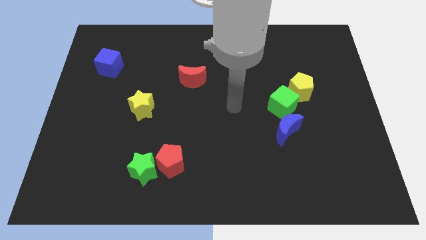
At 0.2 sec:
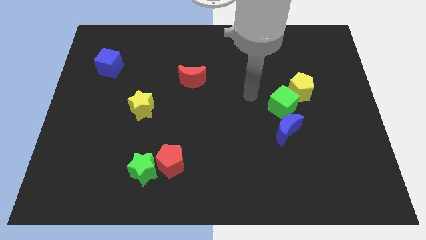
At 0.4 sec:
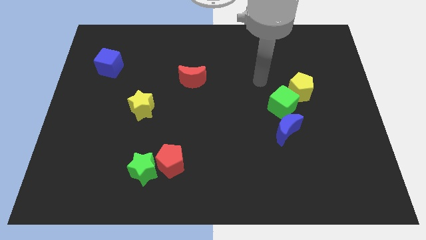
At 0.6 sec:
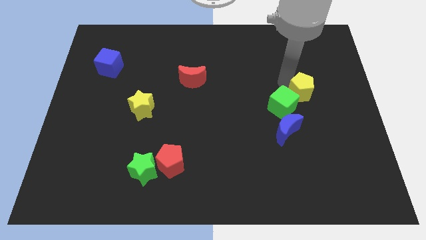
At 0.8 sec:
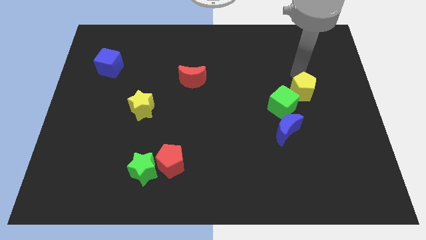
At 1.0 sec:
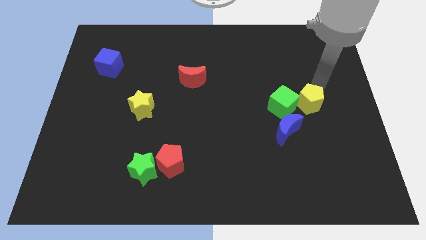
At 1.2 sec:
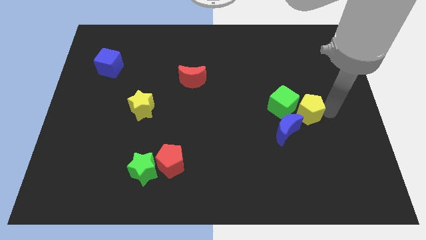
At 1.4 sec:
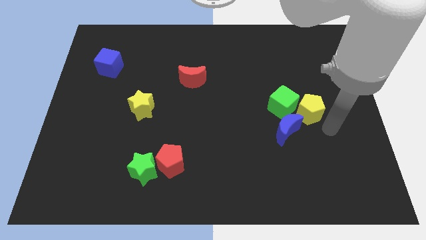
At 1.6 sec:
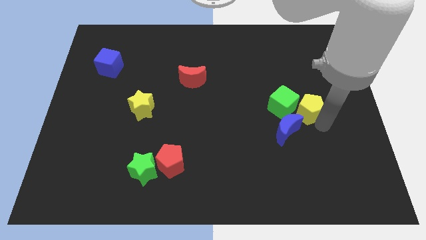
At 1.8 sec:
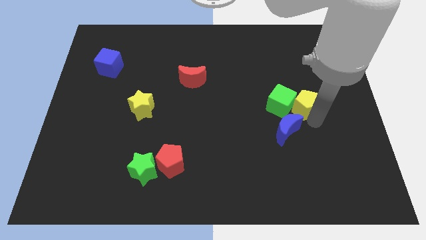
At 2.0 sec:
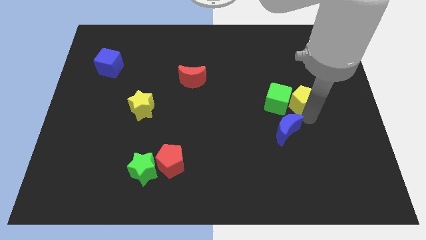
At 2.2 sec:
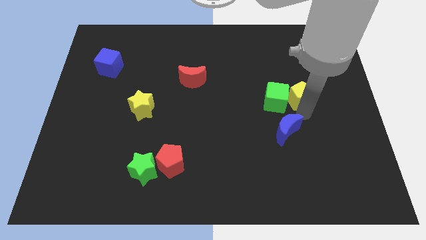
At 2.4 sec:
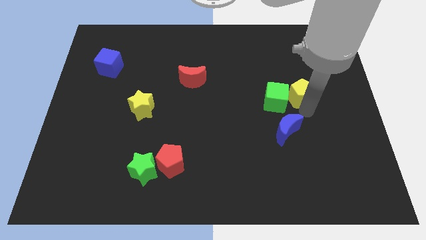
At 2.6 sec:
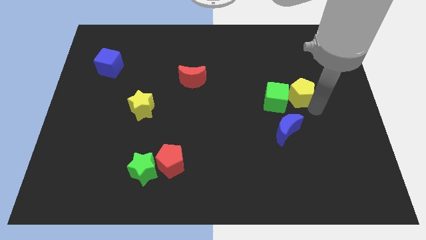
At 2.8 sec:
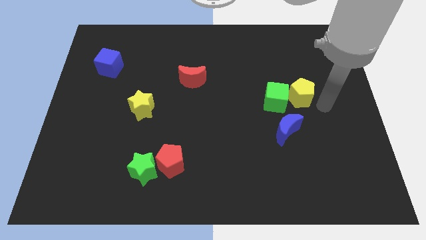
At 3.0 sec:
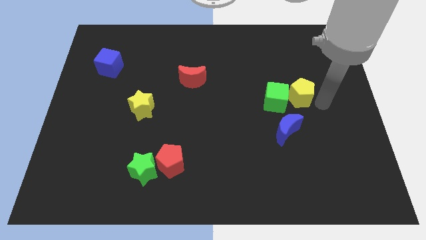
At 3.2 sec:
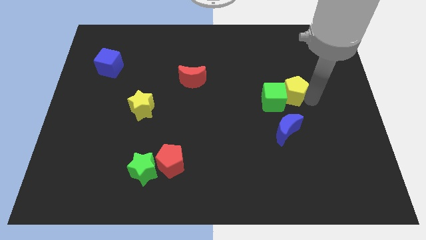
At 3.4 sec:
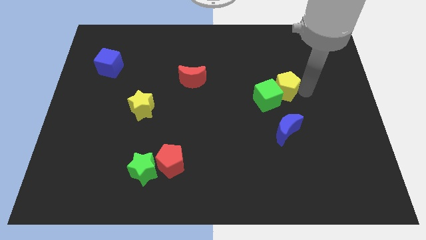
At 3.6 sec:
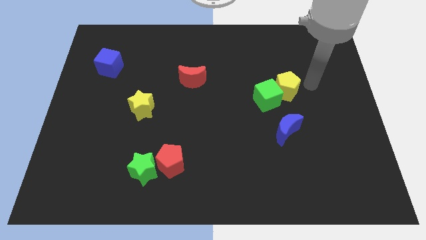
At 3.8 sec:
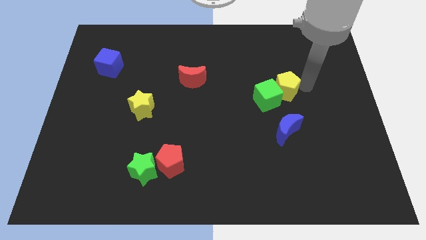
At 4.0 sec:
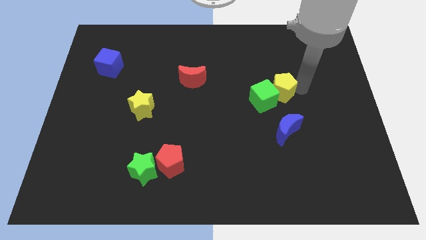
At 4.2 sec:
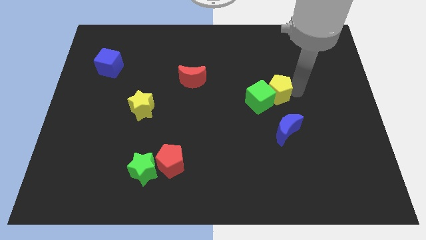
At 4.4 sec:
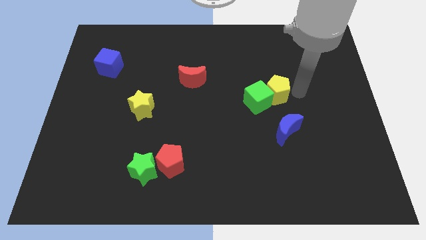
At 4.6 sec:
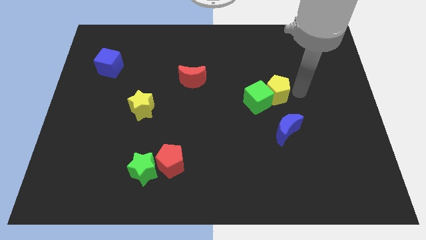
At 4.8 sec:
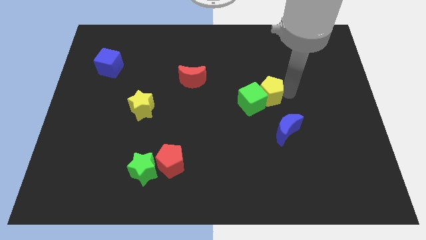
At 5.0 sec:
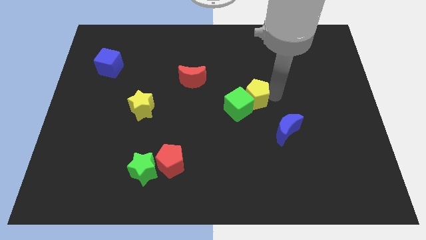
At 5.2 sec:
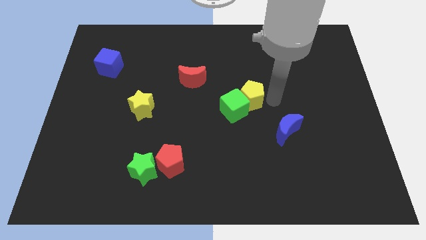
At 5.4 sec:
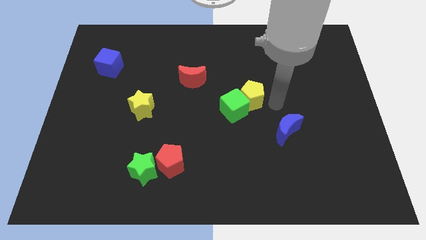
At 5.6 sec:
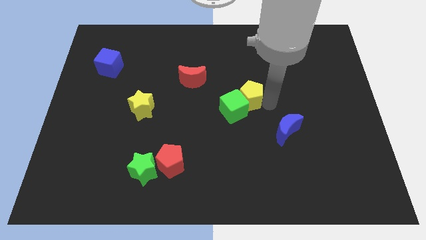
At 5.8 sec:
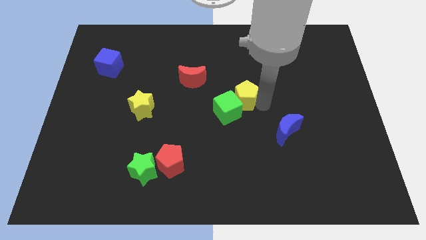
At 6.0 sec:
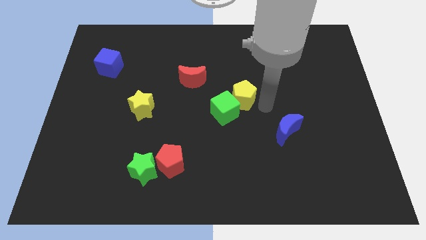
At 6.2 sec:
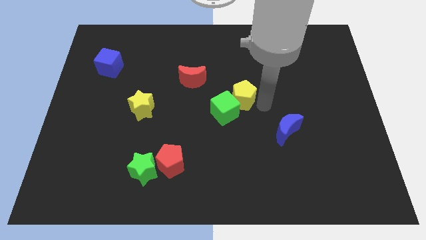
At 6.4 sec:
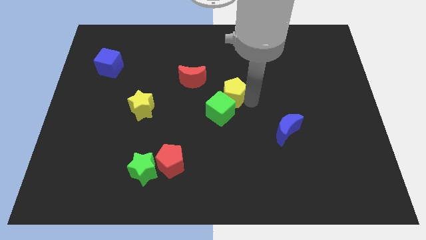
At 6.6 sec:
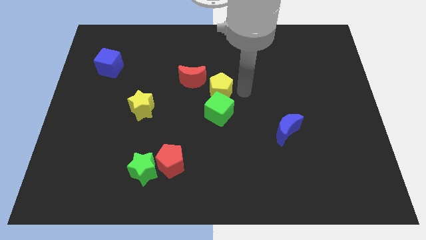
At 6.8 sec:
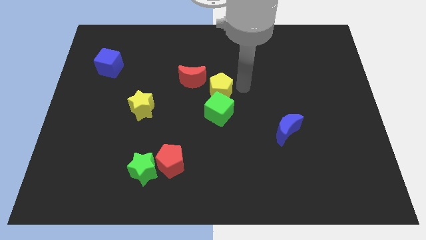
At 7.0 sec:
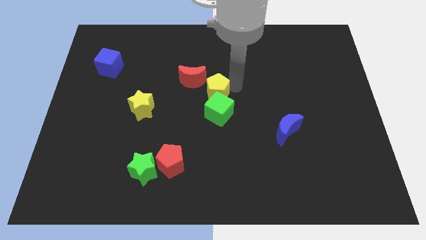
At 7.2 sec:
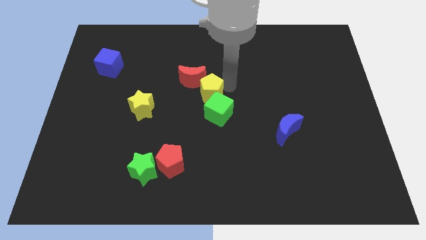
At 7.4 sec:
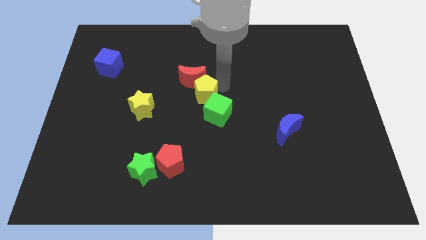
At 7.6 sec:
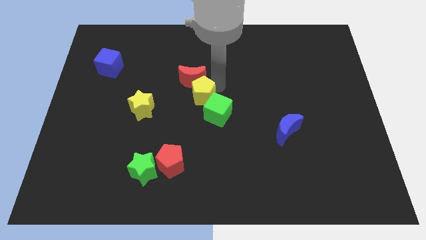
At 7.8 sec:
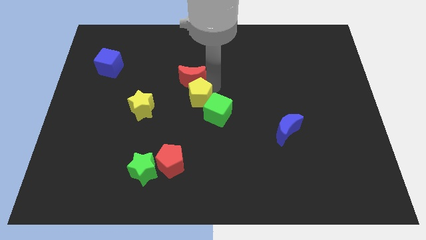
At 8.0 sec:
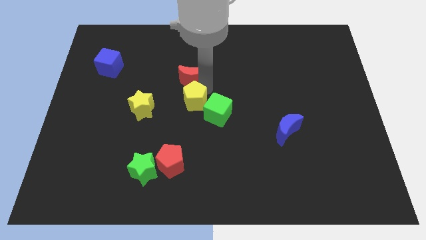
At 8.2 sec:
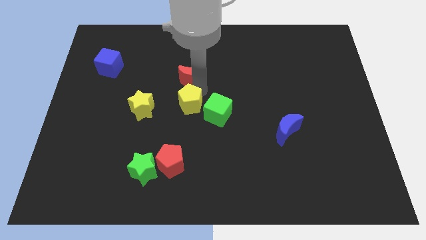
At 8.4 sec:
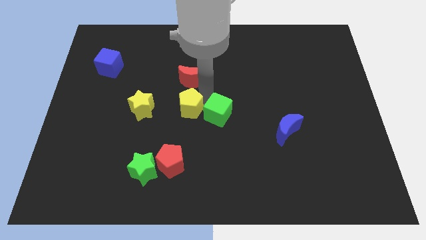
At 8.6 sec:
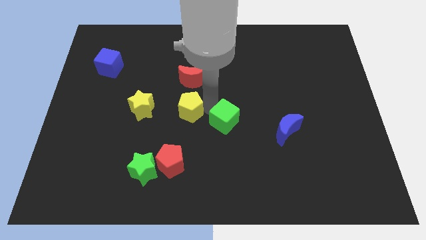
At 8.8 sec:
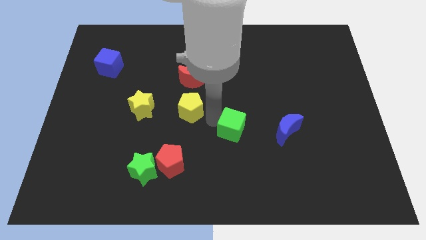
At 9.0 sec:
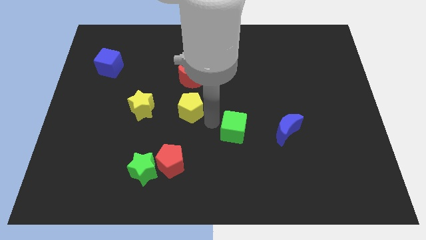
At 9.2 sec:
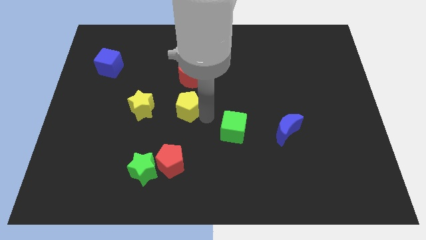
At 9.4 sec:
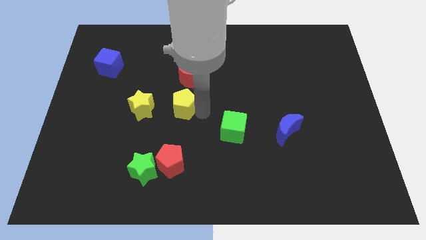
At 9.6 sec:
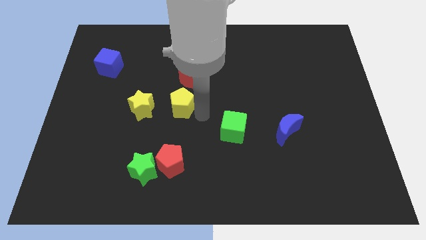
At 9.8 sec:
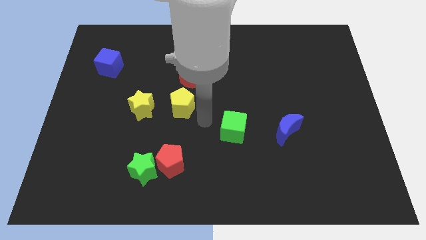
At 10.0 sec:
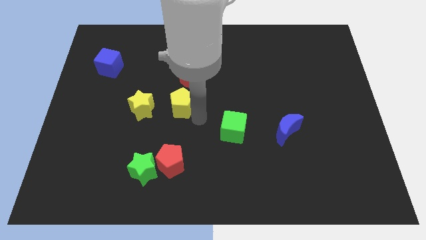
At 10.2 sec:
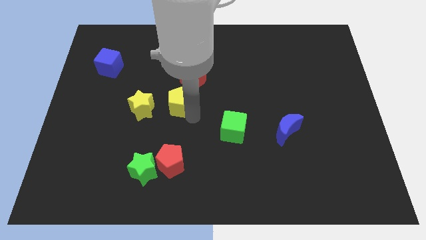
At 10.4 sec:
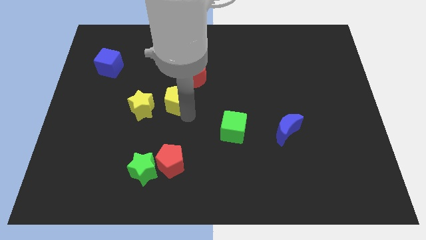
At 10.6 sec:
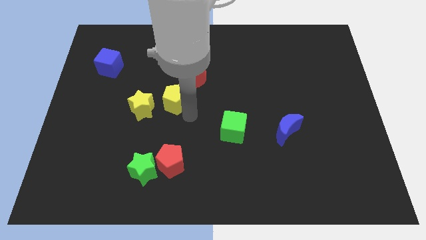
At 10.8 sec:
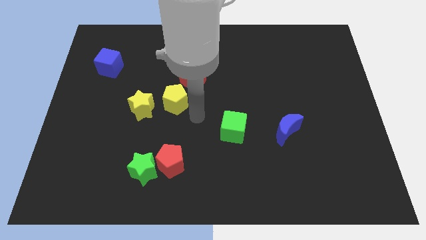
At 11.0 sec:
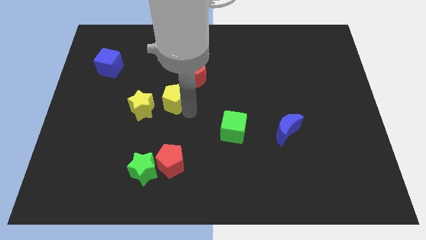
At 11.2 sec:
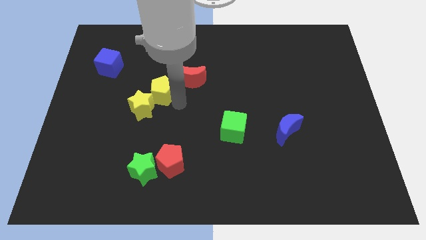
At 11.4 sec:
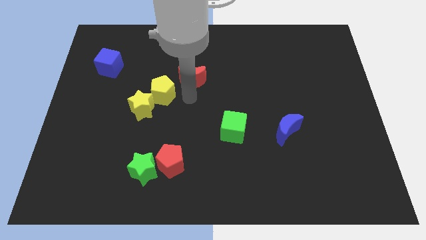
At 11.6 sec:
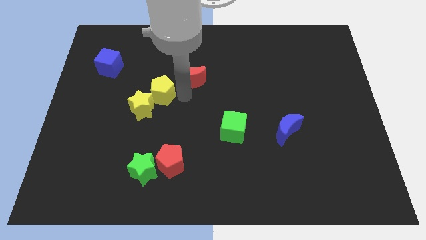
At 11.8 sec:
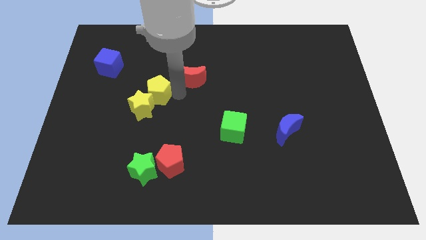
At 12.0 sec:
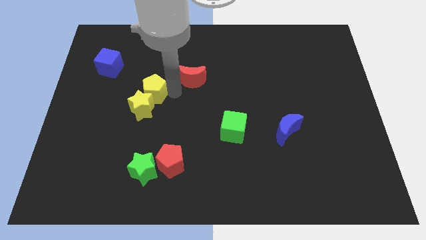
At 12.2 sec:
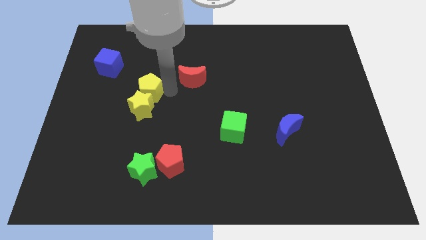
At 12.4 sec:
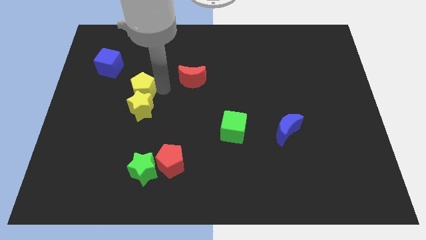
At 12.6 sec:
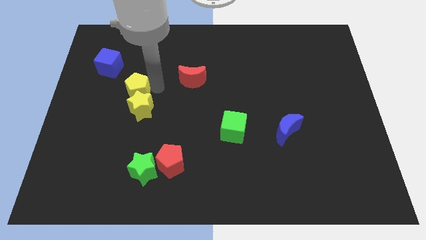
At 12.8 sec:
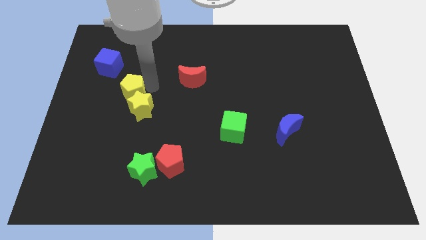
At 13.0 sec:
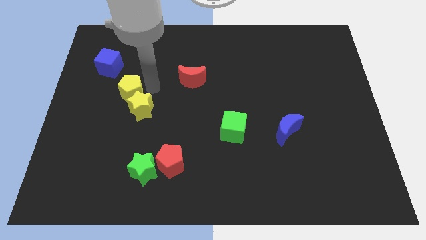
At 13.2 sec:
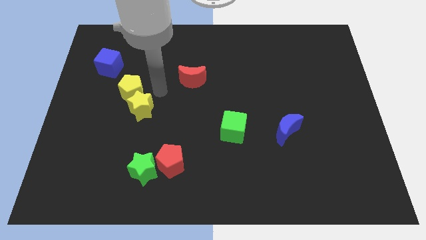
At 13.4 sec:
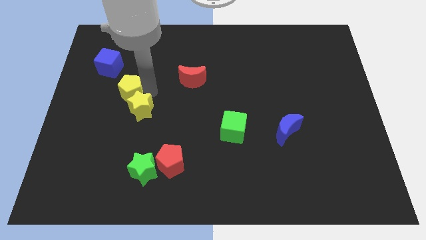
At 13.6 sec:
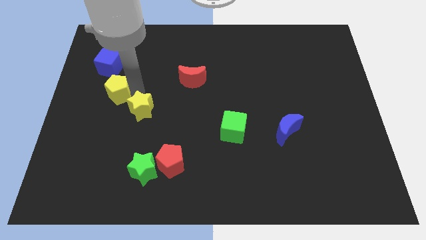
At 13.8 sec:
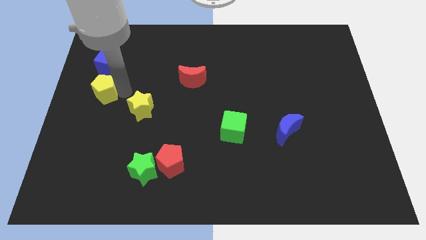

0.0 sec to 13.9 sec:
put the yellow pentagon to the left side

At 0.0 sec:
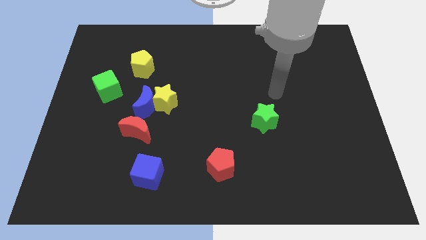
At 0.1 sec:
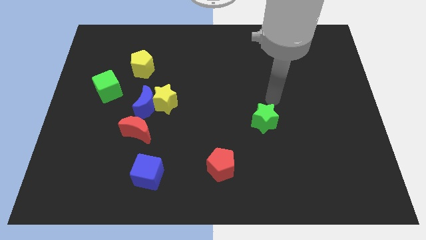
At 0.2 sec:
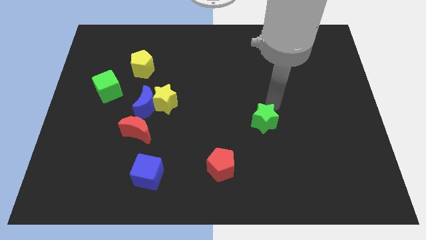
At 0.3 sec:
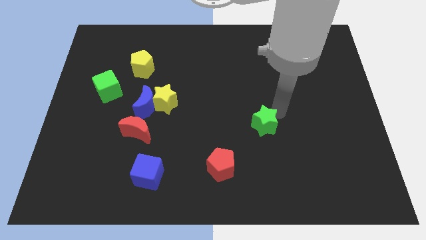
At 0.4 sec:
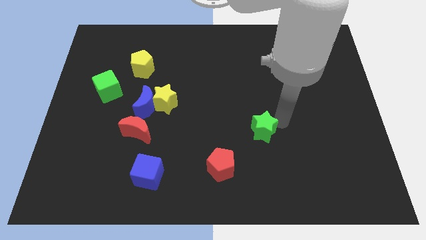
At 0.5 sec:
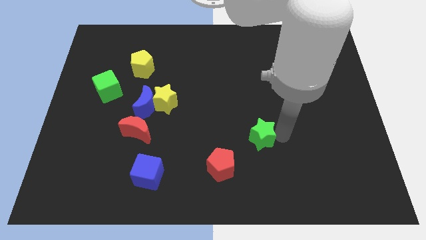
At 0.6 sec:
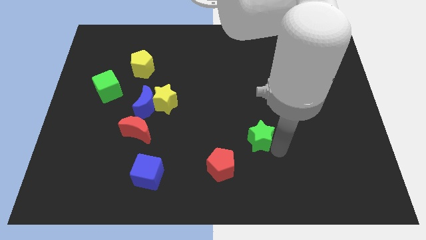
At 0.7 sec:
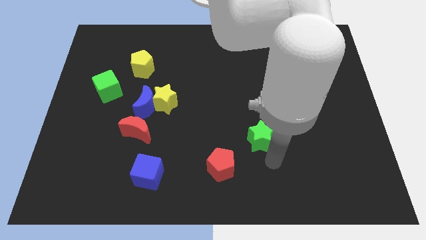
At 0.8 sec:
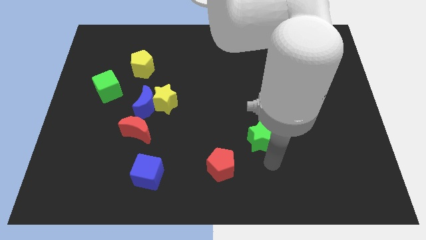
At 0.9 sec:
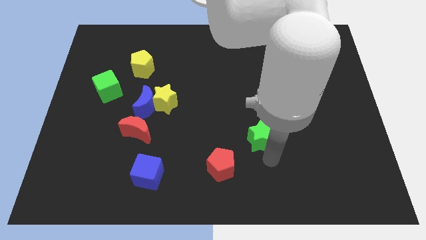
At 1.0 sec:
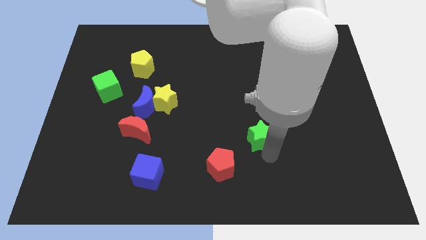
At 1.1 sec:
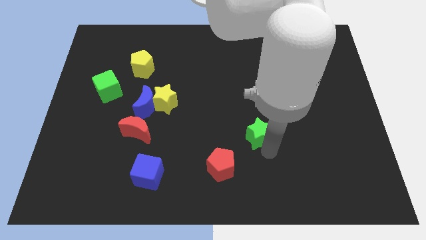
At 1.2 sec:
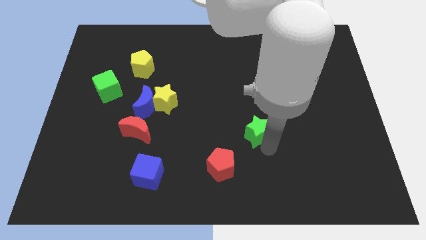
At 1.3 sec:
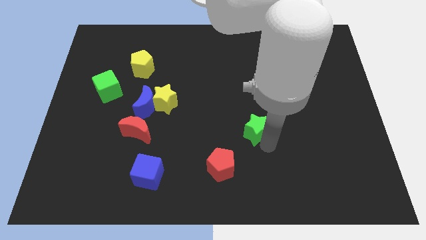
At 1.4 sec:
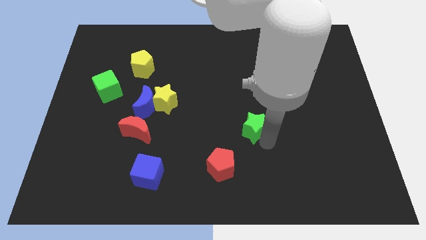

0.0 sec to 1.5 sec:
move the green star to the middle of the board
